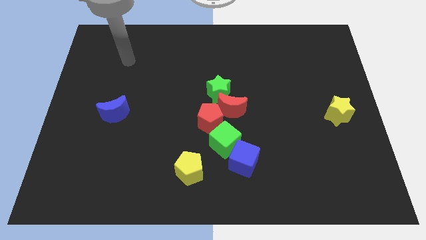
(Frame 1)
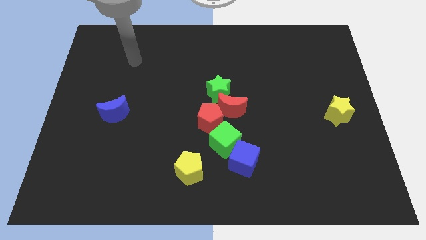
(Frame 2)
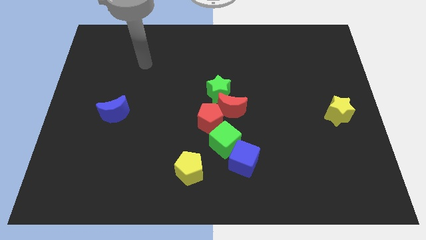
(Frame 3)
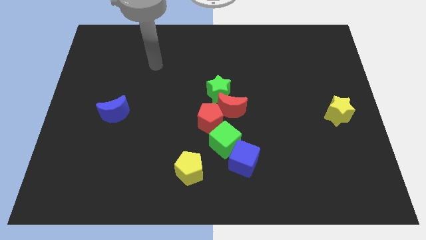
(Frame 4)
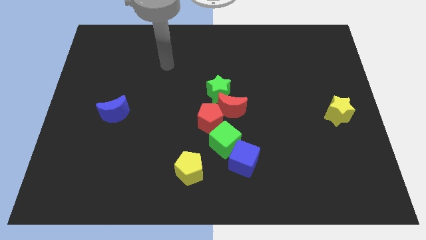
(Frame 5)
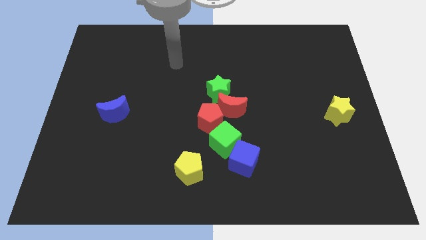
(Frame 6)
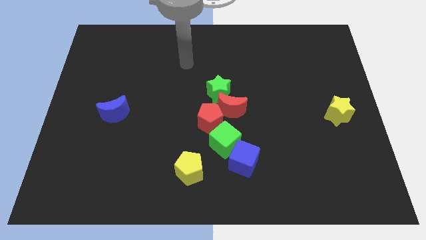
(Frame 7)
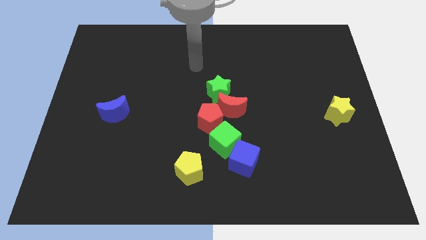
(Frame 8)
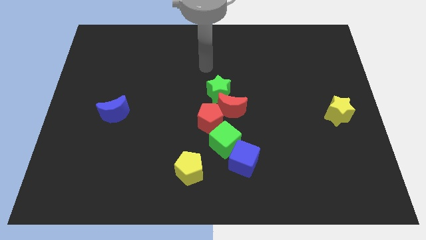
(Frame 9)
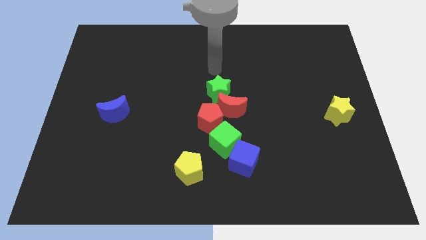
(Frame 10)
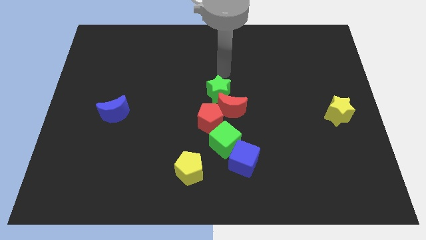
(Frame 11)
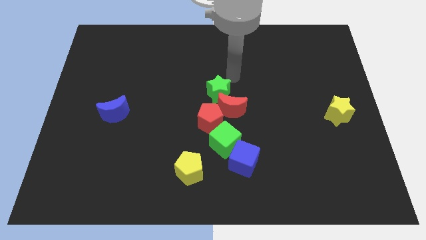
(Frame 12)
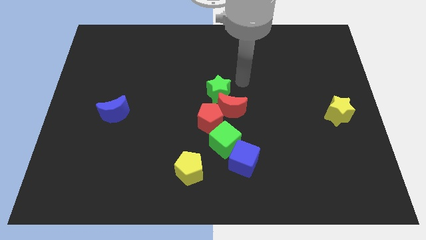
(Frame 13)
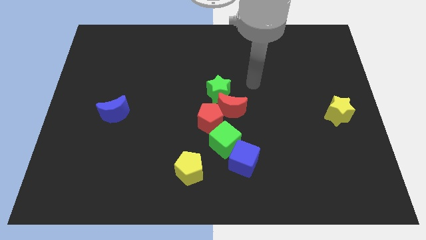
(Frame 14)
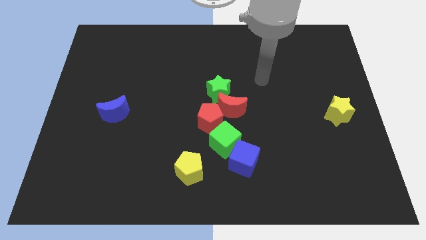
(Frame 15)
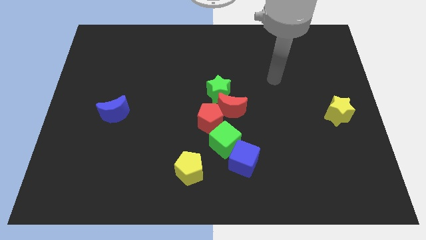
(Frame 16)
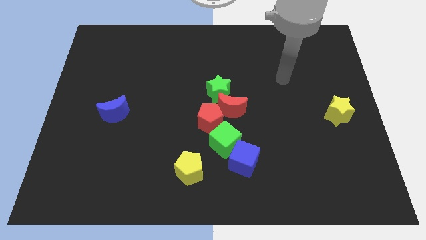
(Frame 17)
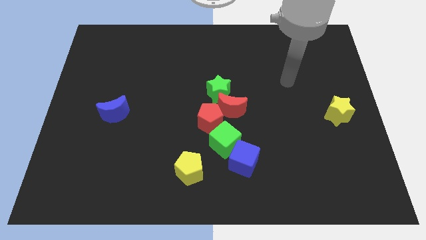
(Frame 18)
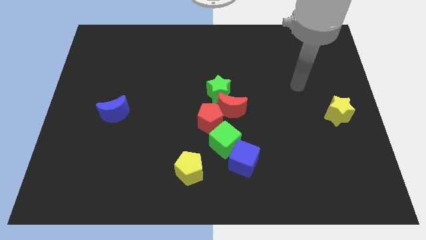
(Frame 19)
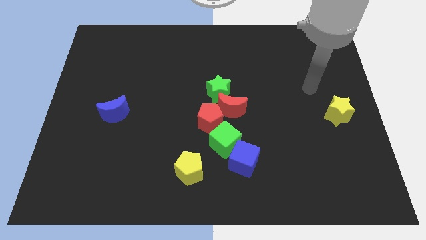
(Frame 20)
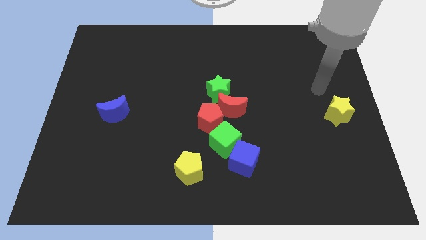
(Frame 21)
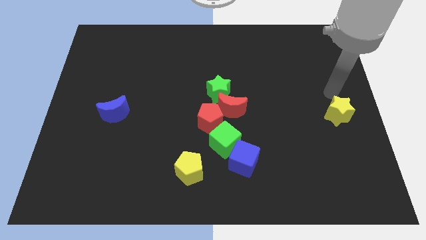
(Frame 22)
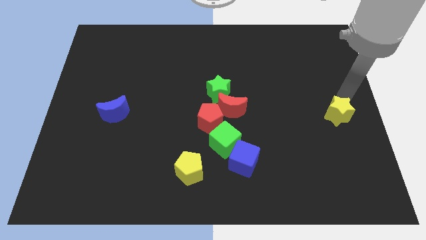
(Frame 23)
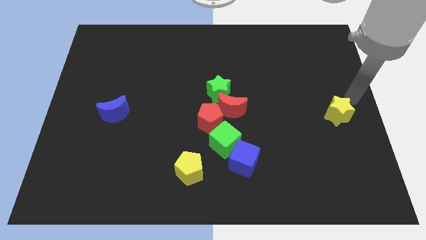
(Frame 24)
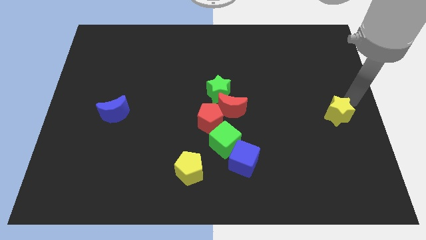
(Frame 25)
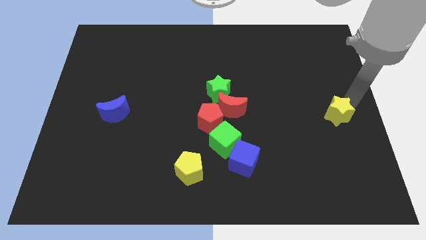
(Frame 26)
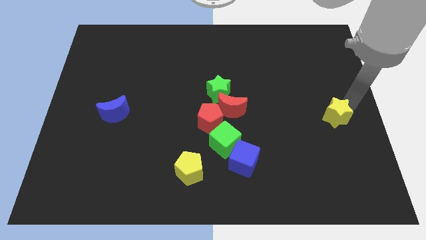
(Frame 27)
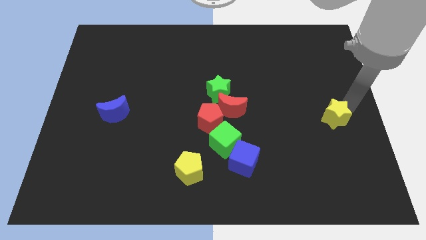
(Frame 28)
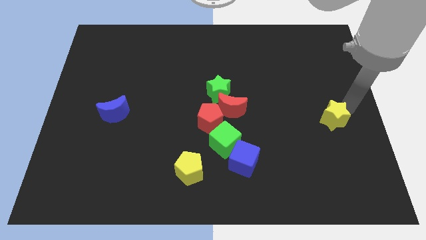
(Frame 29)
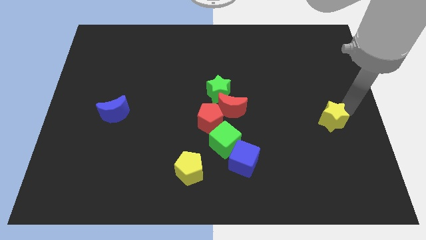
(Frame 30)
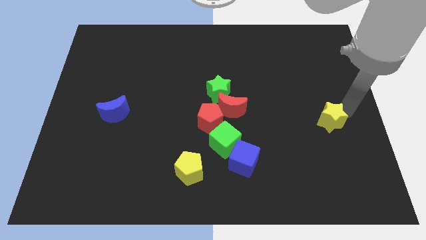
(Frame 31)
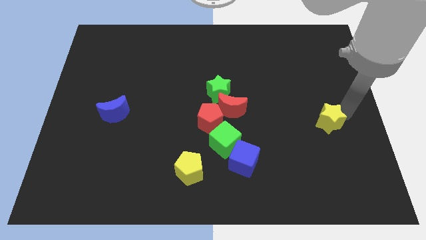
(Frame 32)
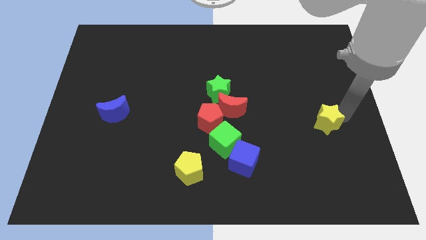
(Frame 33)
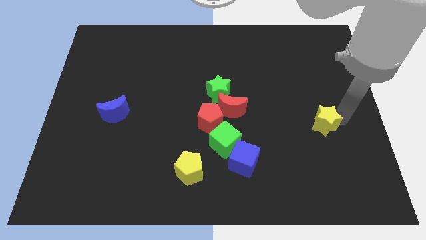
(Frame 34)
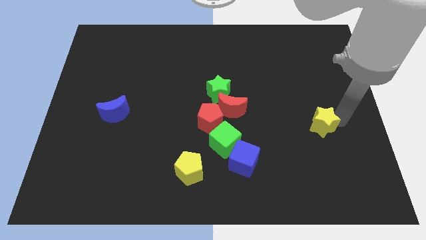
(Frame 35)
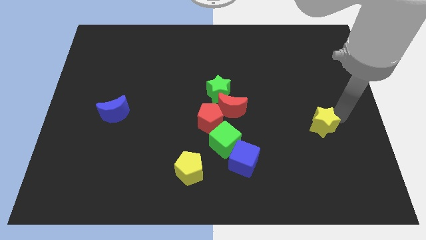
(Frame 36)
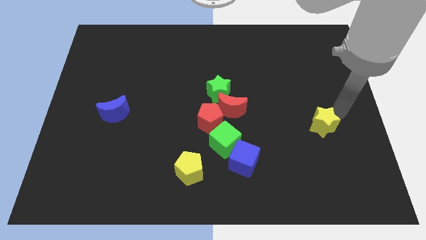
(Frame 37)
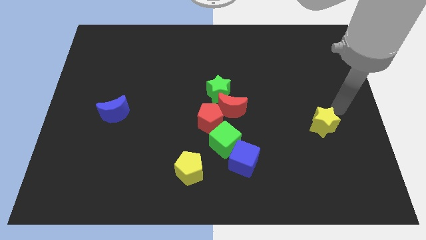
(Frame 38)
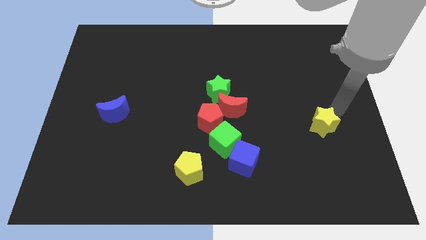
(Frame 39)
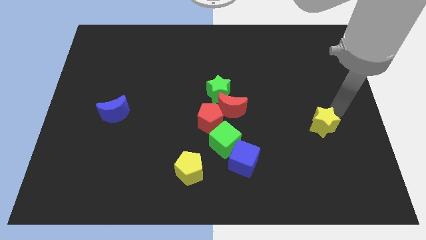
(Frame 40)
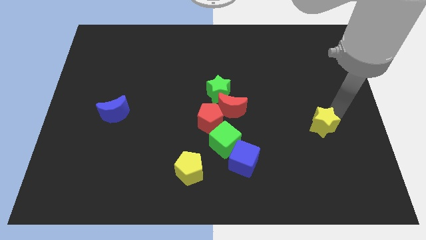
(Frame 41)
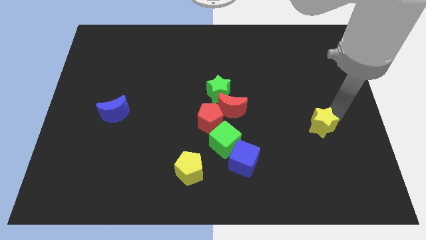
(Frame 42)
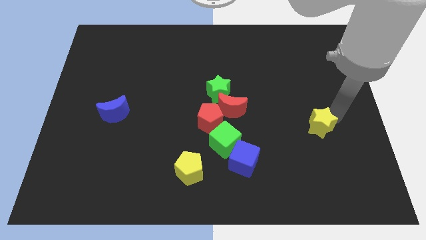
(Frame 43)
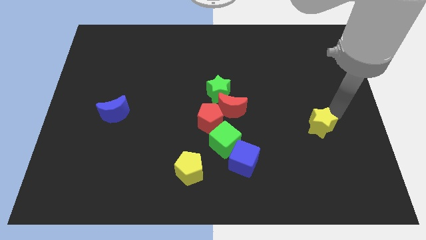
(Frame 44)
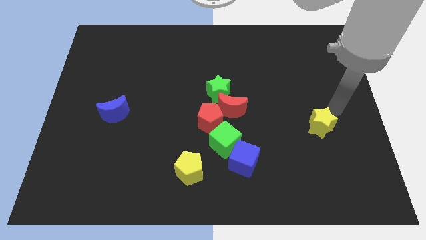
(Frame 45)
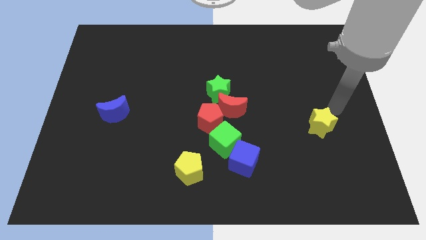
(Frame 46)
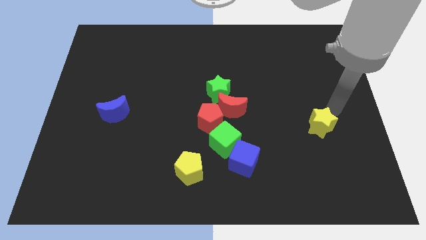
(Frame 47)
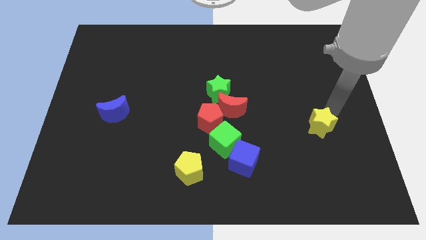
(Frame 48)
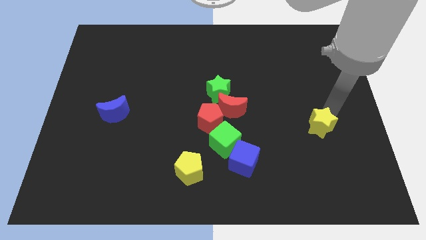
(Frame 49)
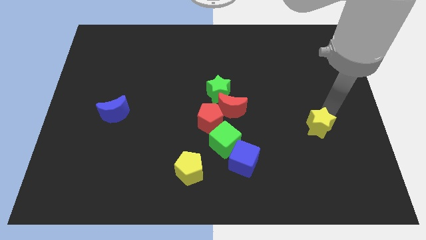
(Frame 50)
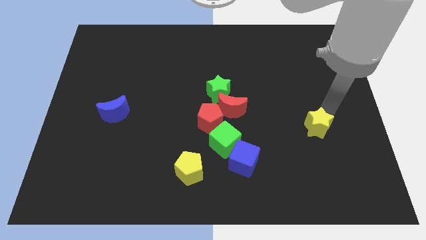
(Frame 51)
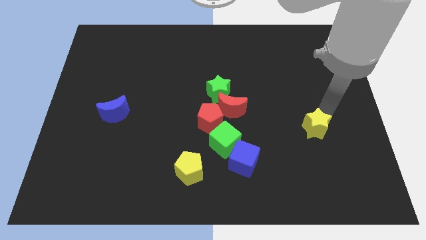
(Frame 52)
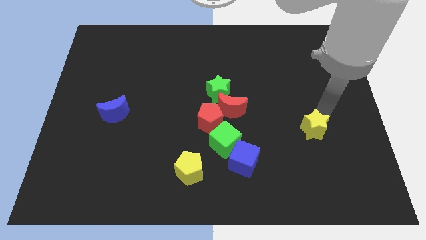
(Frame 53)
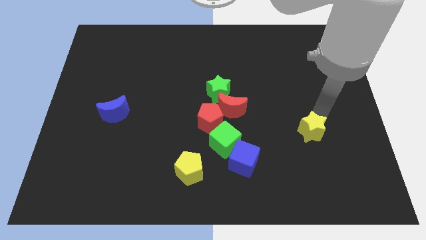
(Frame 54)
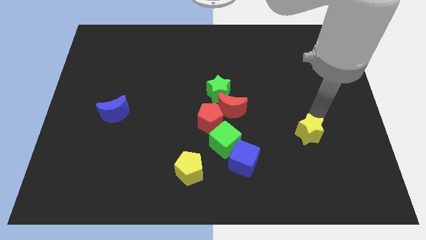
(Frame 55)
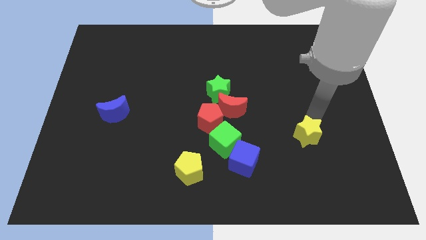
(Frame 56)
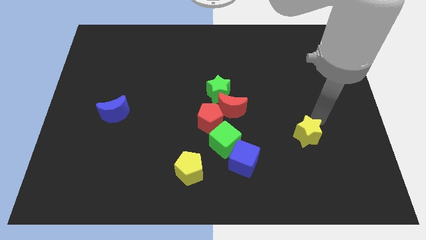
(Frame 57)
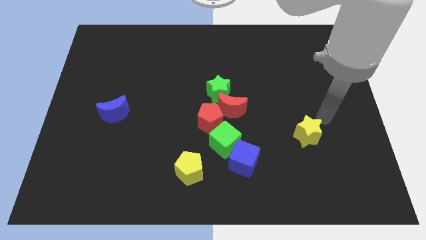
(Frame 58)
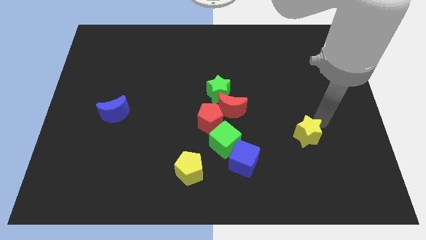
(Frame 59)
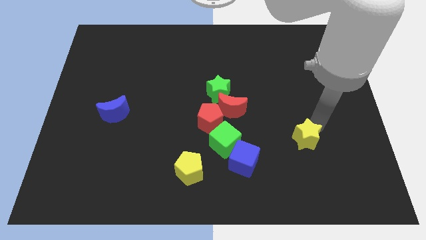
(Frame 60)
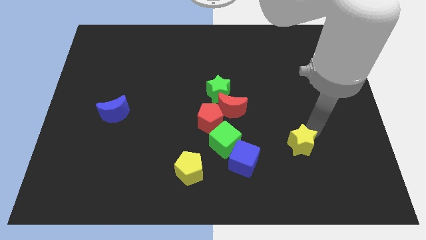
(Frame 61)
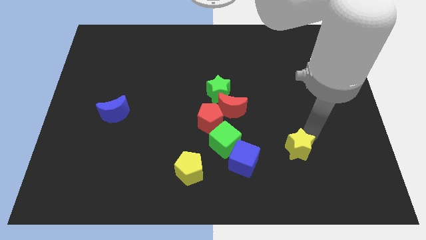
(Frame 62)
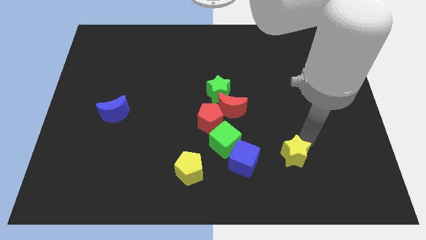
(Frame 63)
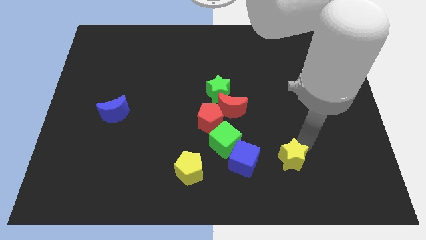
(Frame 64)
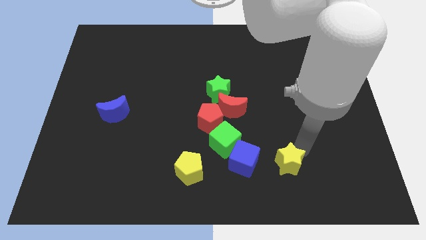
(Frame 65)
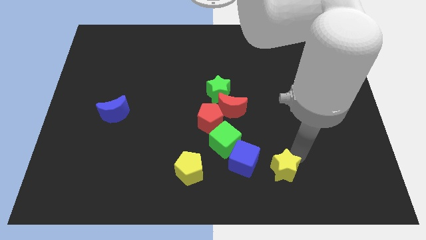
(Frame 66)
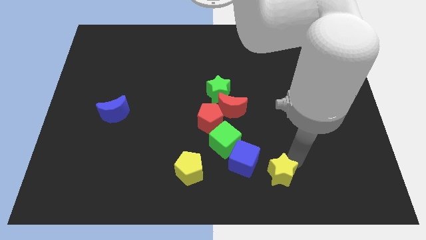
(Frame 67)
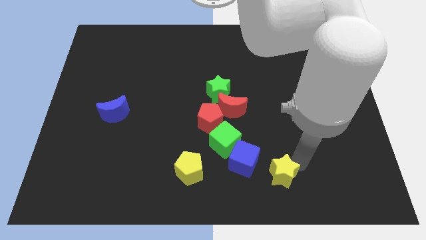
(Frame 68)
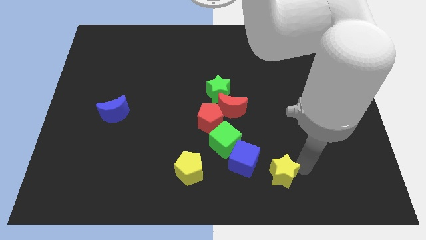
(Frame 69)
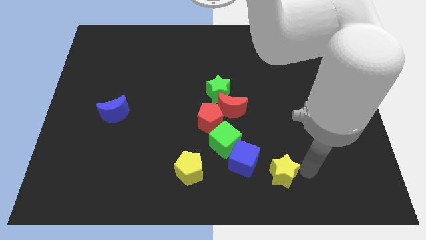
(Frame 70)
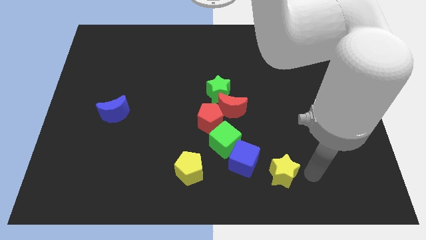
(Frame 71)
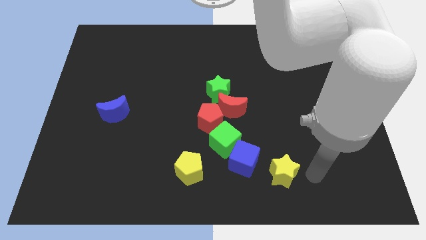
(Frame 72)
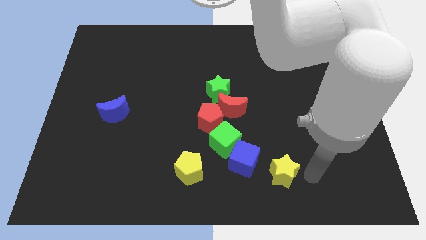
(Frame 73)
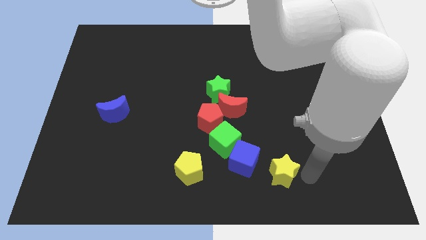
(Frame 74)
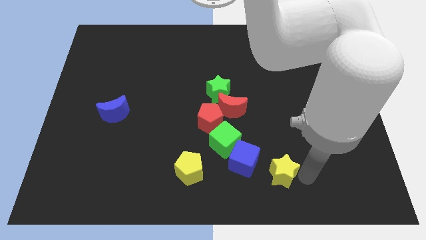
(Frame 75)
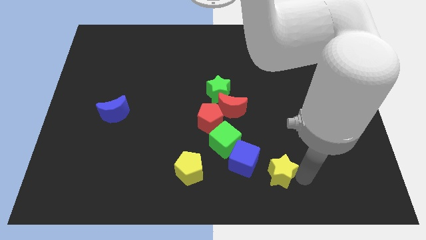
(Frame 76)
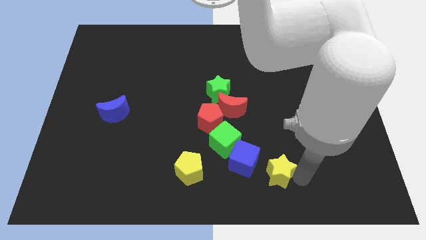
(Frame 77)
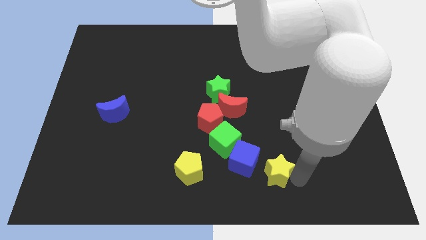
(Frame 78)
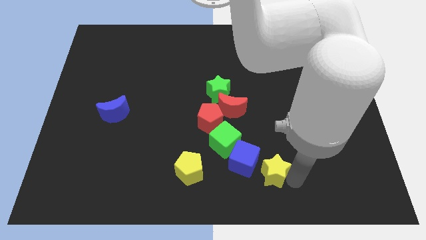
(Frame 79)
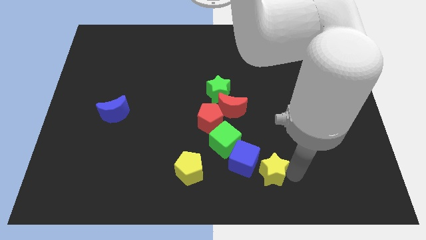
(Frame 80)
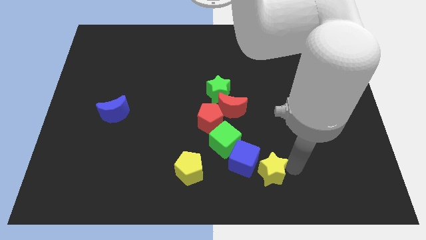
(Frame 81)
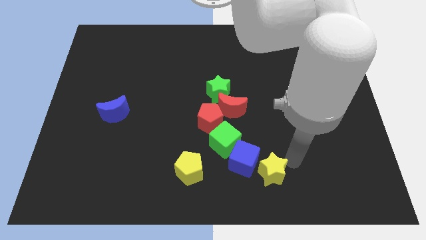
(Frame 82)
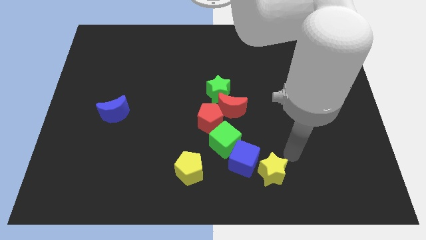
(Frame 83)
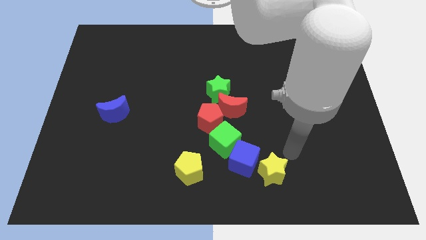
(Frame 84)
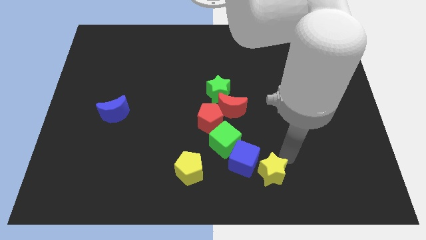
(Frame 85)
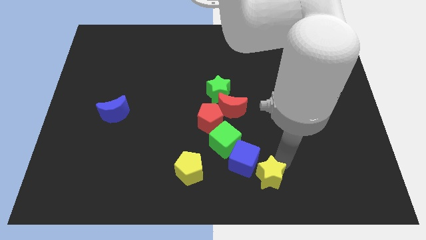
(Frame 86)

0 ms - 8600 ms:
put the yellow star to the bottom
